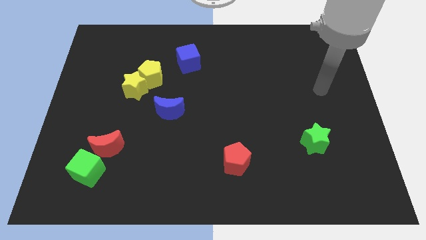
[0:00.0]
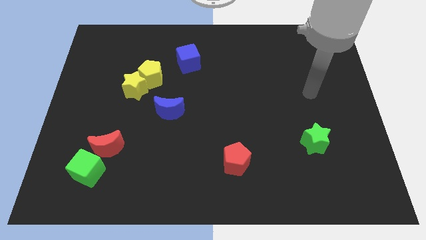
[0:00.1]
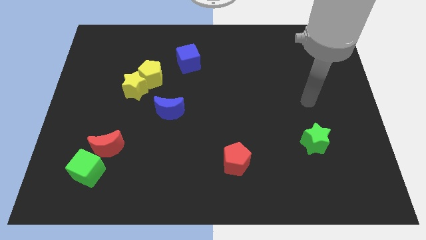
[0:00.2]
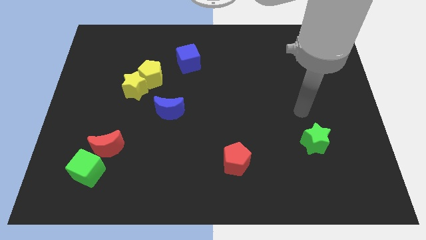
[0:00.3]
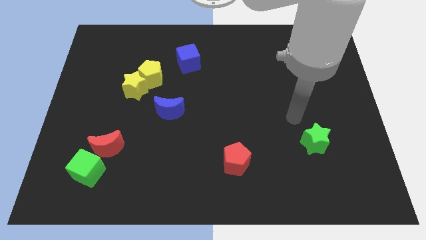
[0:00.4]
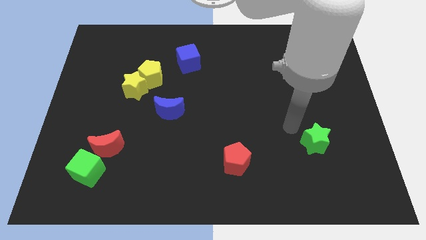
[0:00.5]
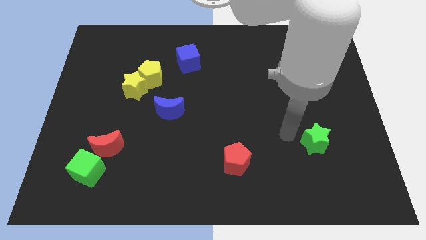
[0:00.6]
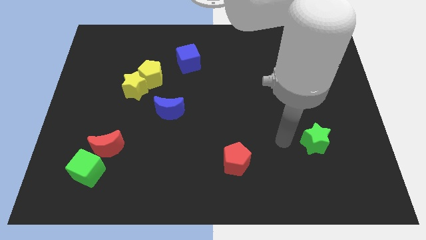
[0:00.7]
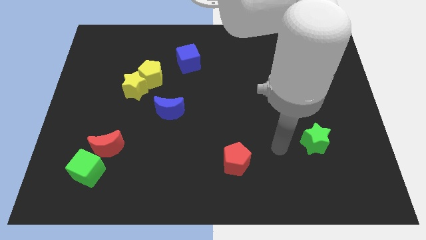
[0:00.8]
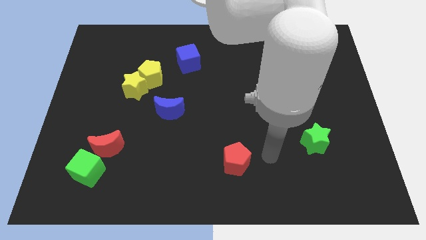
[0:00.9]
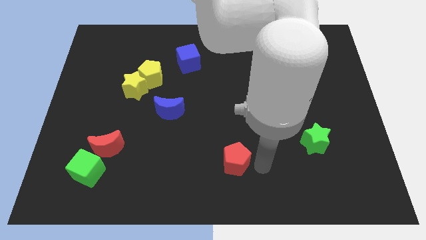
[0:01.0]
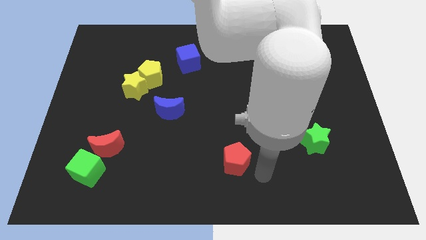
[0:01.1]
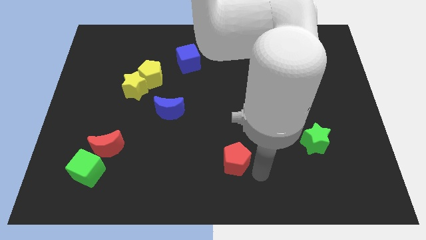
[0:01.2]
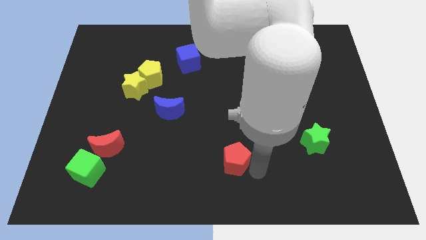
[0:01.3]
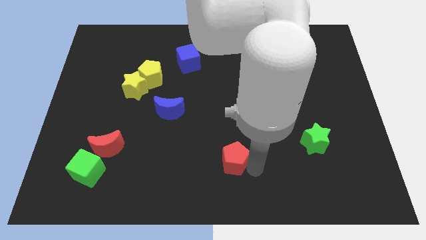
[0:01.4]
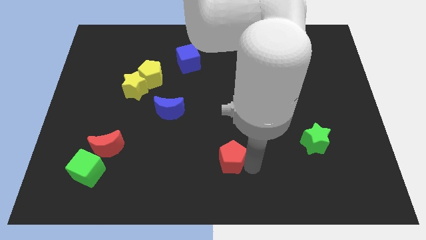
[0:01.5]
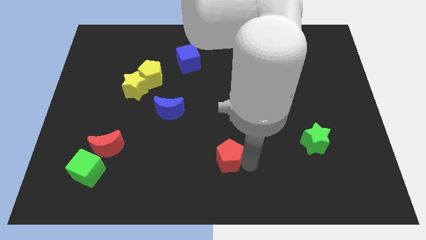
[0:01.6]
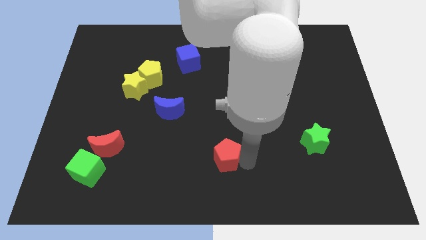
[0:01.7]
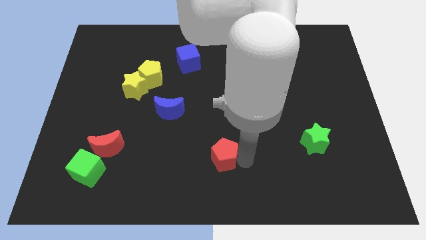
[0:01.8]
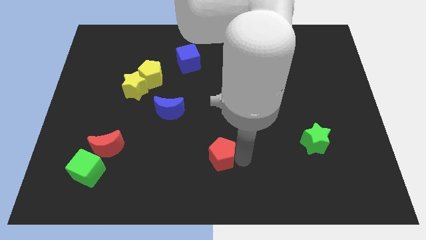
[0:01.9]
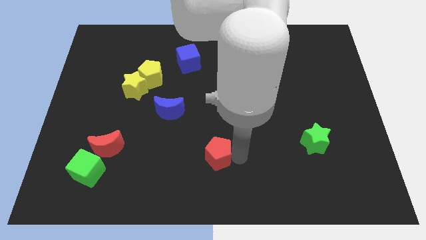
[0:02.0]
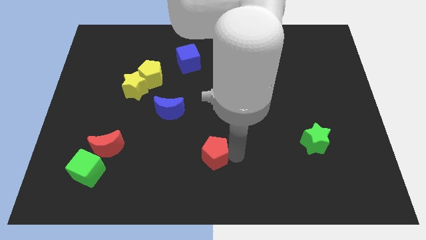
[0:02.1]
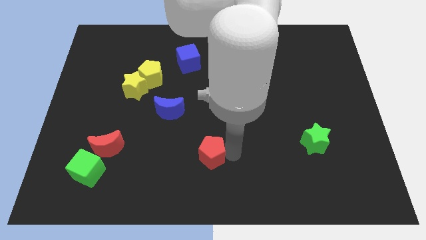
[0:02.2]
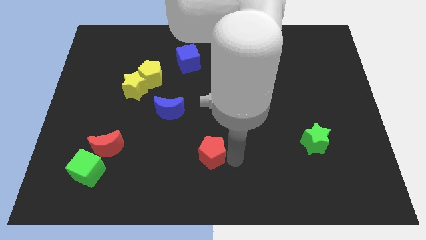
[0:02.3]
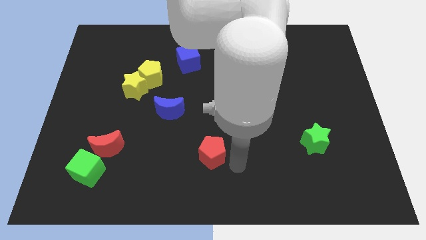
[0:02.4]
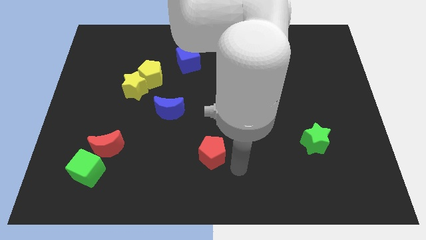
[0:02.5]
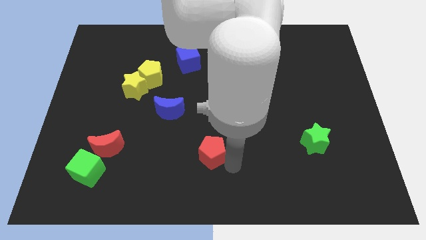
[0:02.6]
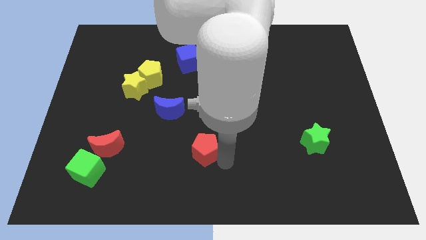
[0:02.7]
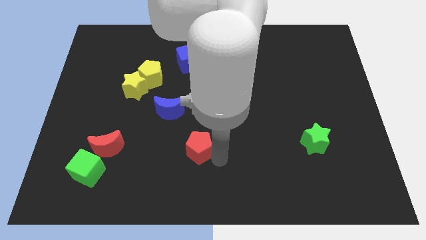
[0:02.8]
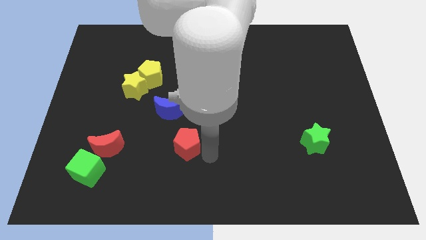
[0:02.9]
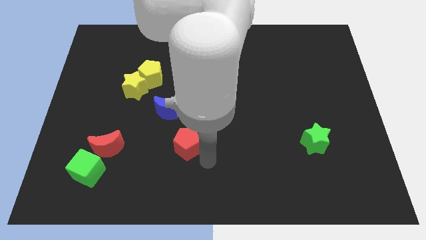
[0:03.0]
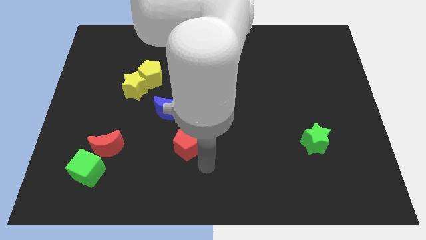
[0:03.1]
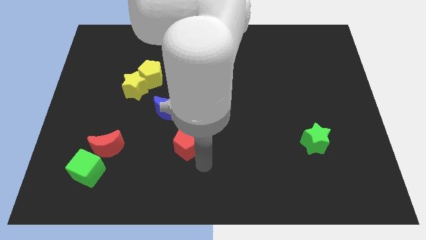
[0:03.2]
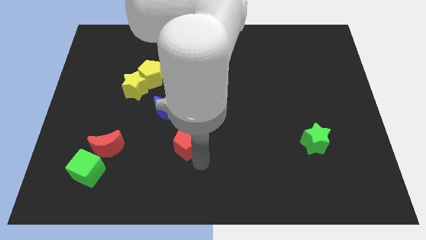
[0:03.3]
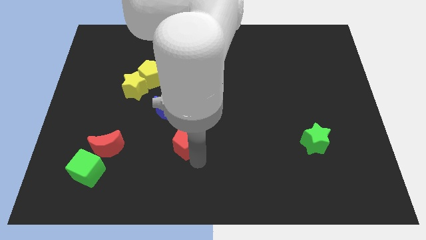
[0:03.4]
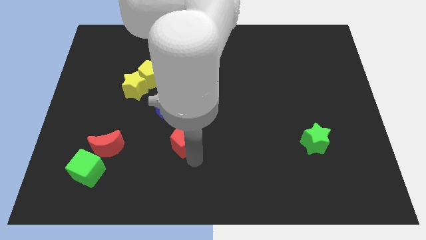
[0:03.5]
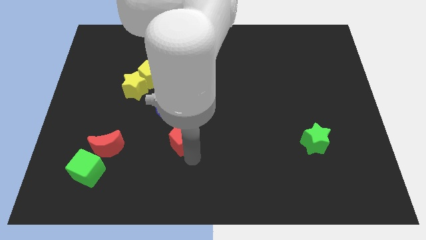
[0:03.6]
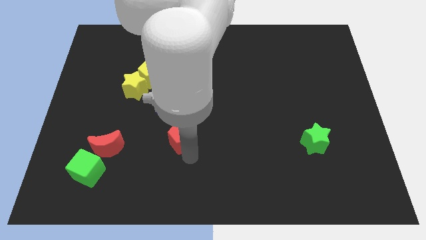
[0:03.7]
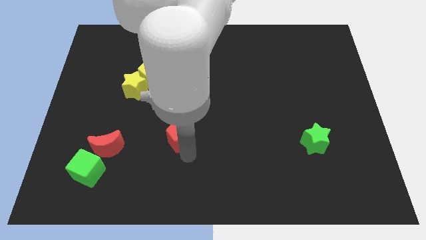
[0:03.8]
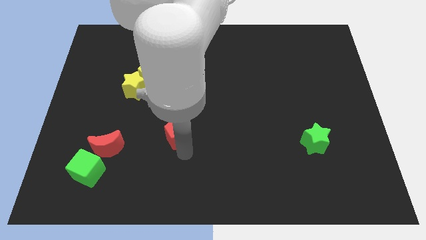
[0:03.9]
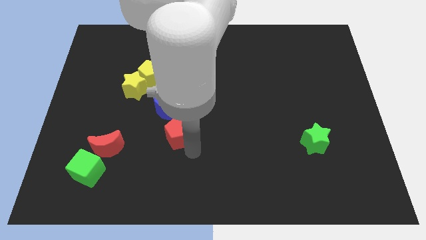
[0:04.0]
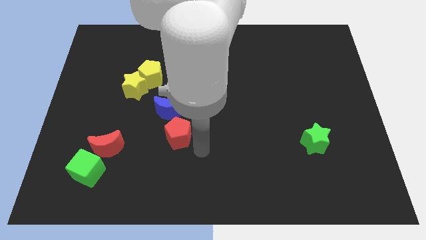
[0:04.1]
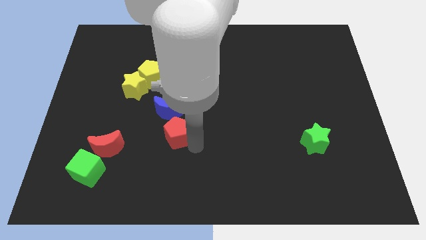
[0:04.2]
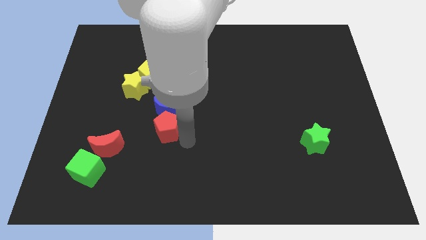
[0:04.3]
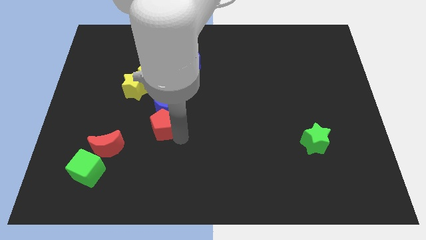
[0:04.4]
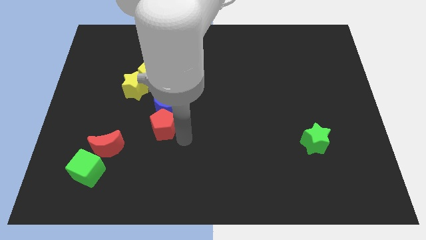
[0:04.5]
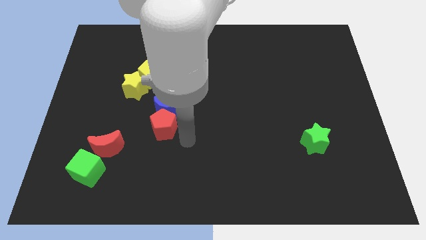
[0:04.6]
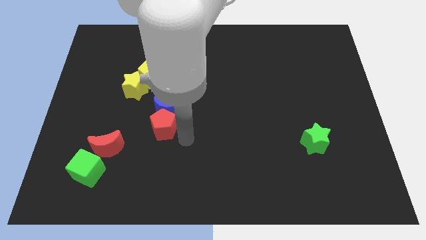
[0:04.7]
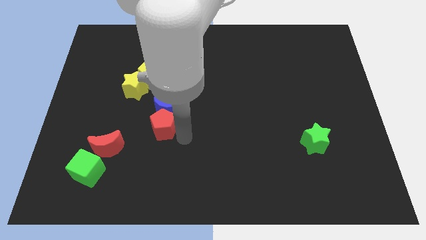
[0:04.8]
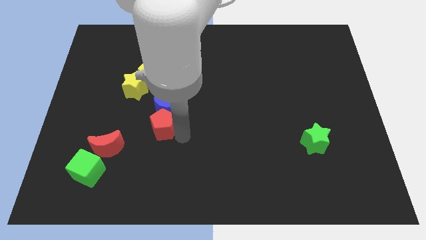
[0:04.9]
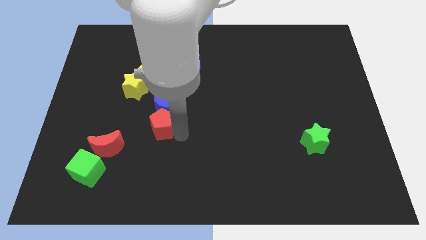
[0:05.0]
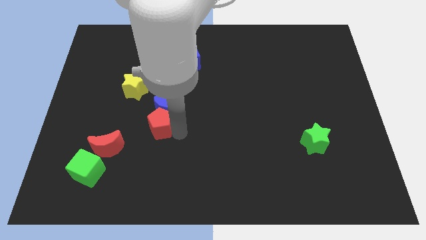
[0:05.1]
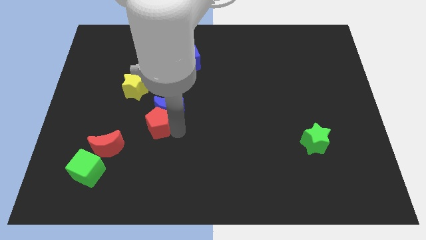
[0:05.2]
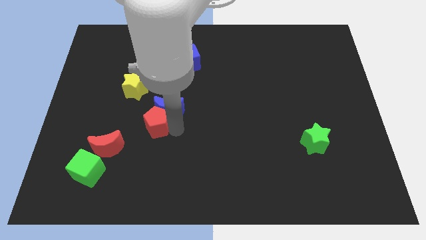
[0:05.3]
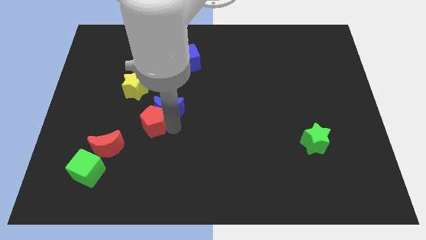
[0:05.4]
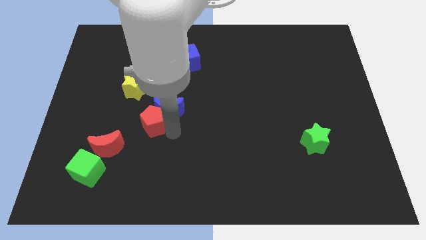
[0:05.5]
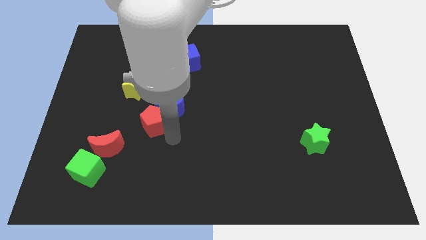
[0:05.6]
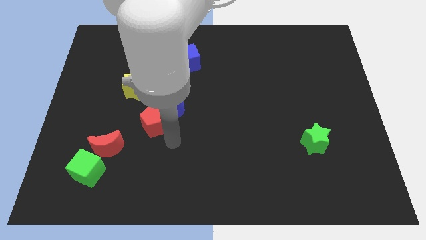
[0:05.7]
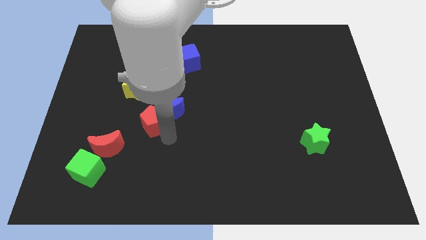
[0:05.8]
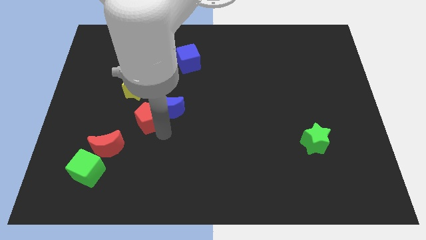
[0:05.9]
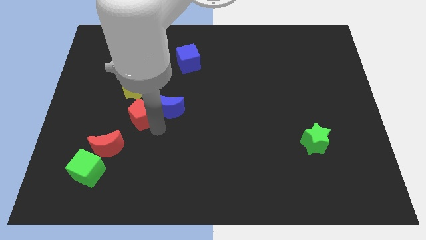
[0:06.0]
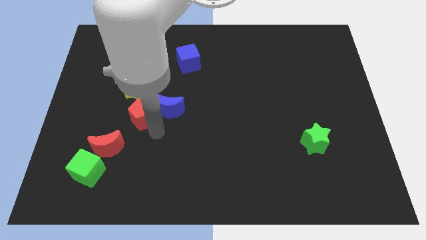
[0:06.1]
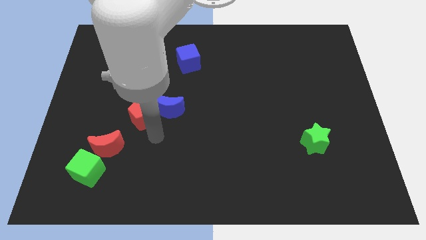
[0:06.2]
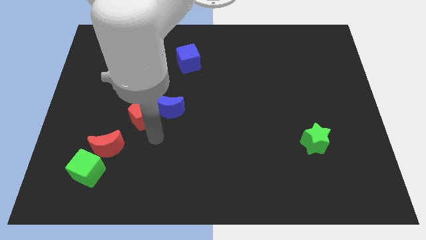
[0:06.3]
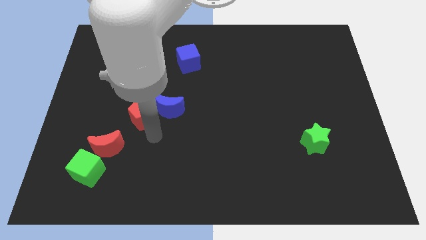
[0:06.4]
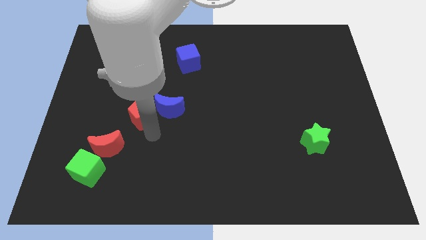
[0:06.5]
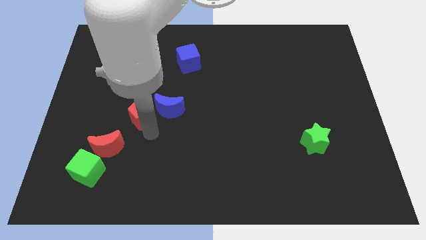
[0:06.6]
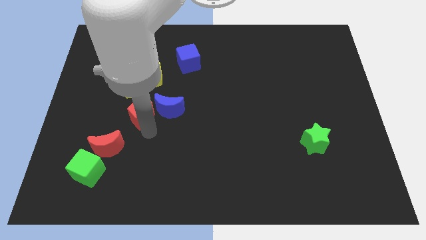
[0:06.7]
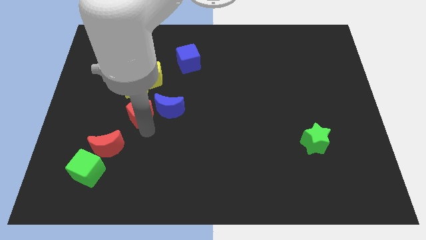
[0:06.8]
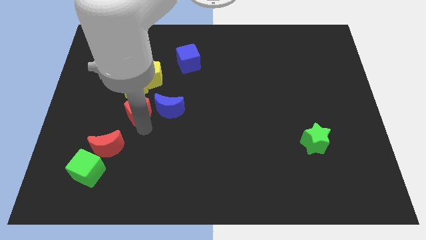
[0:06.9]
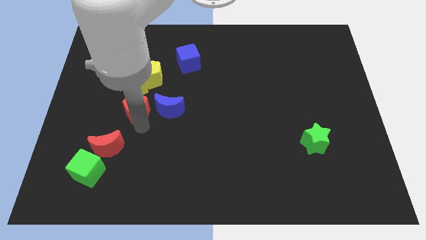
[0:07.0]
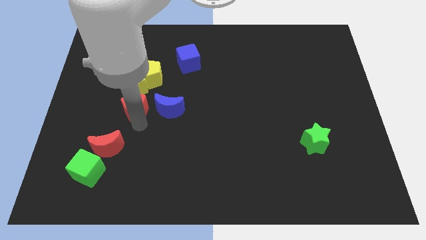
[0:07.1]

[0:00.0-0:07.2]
push the red pentagon to the yellow star

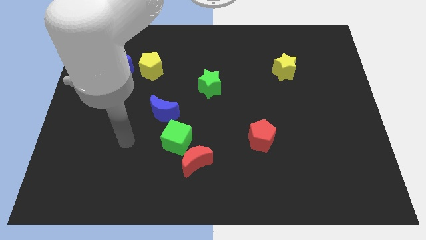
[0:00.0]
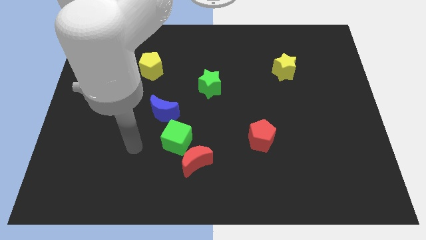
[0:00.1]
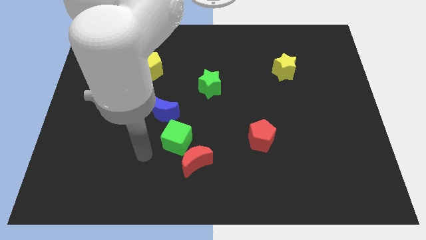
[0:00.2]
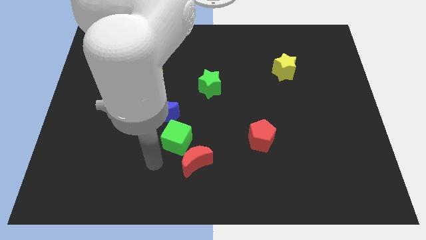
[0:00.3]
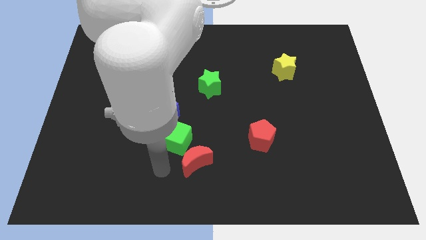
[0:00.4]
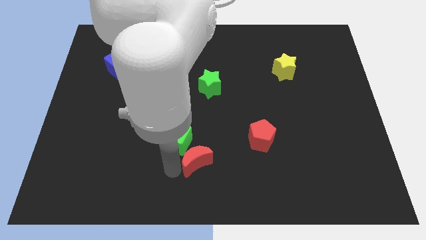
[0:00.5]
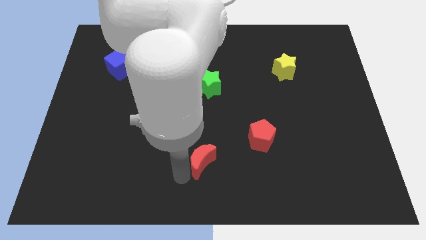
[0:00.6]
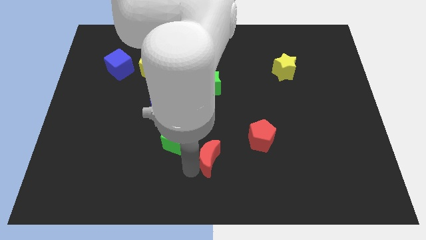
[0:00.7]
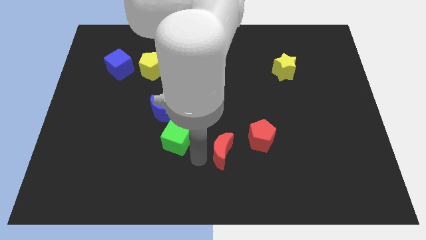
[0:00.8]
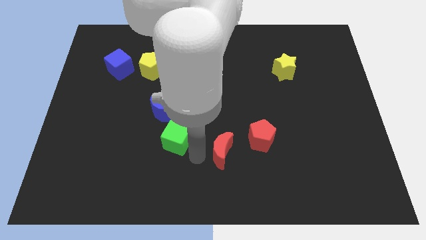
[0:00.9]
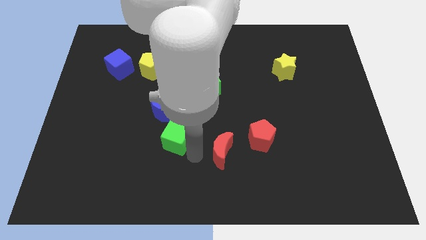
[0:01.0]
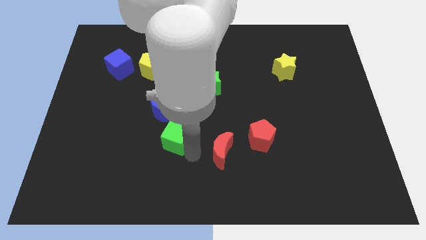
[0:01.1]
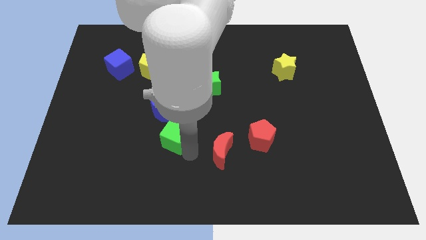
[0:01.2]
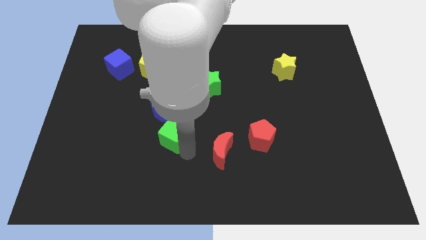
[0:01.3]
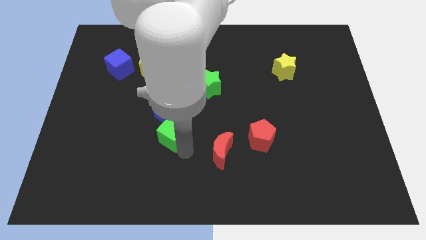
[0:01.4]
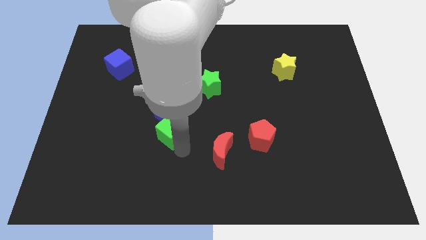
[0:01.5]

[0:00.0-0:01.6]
slide the green cube to the blue moon
